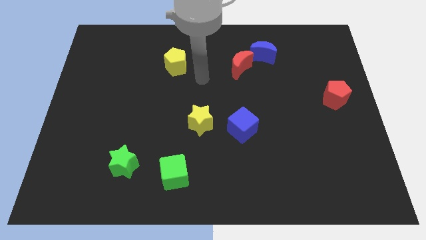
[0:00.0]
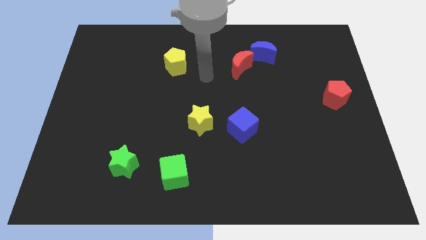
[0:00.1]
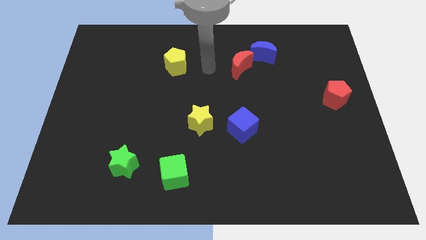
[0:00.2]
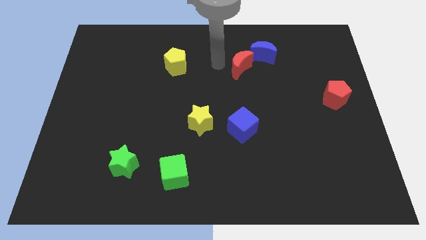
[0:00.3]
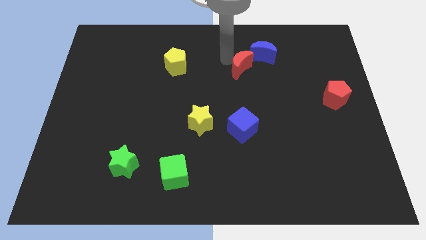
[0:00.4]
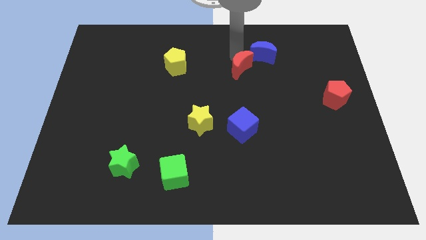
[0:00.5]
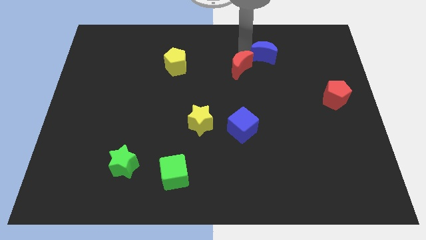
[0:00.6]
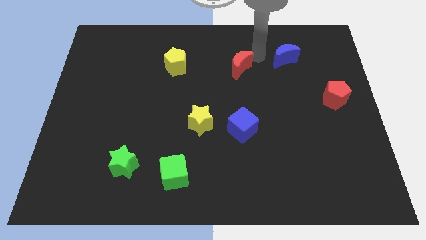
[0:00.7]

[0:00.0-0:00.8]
move the red moon away from the blue moon

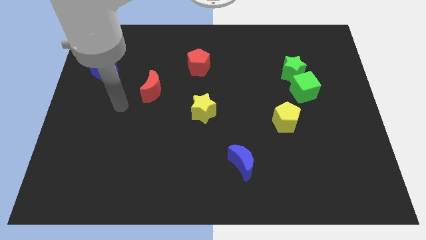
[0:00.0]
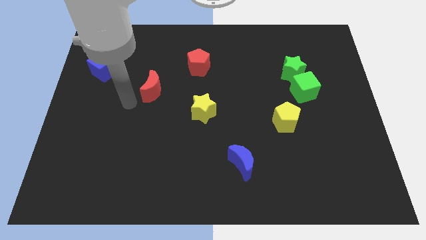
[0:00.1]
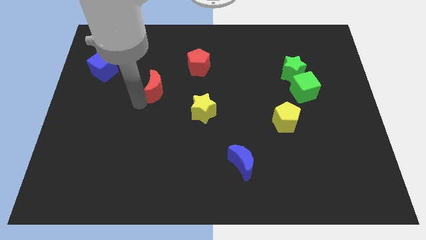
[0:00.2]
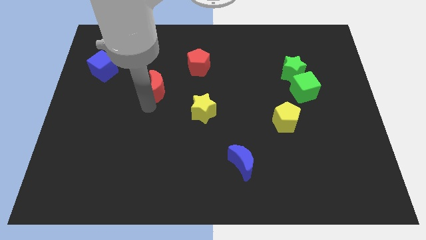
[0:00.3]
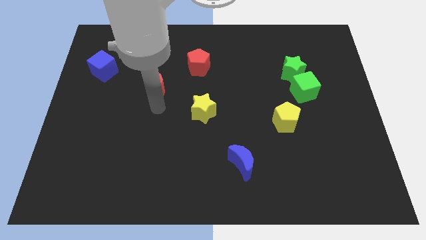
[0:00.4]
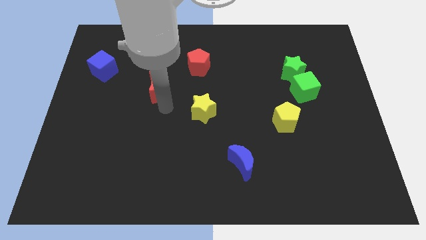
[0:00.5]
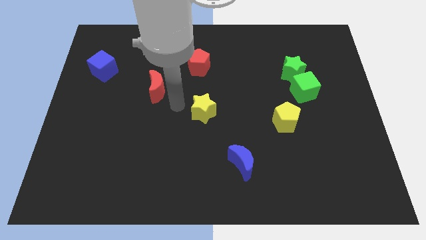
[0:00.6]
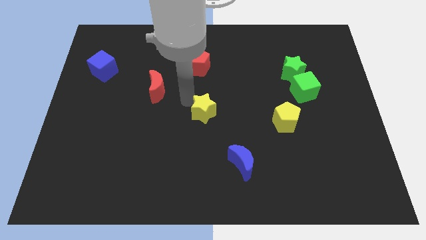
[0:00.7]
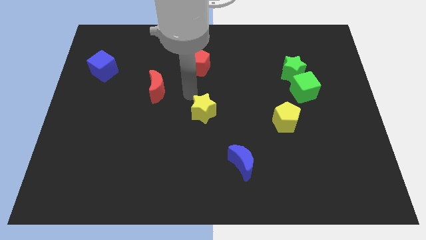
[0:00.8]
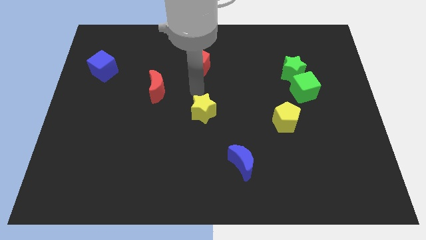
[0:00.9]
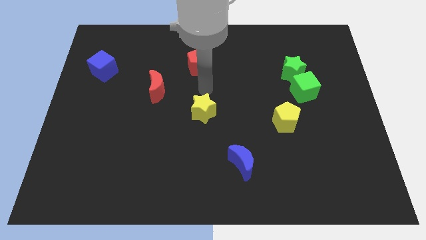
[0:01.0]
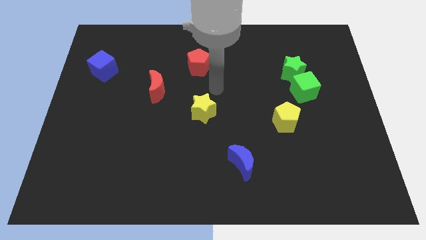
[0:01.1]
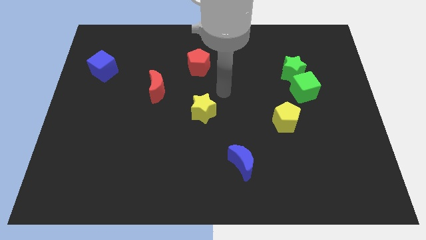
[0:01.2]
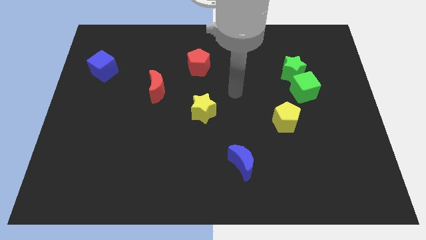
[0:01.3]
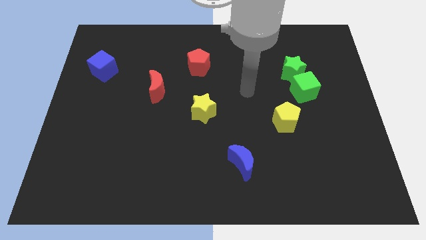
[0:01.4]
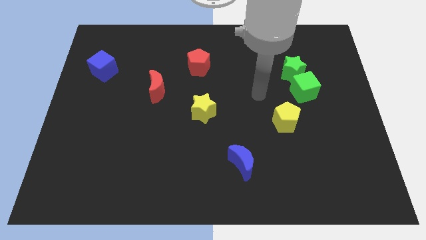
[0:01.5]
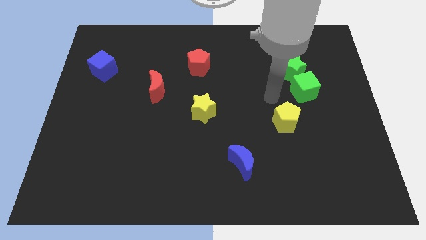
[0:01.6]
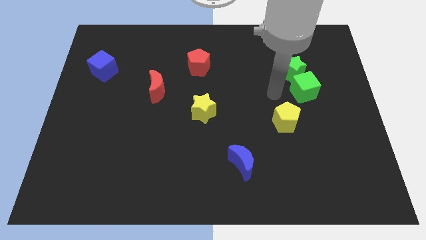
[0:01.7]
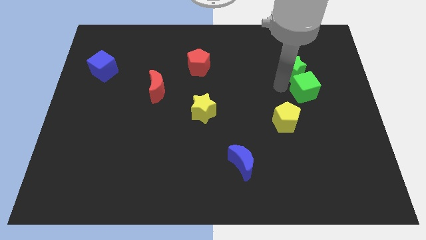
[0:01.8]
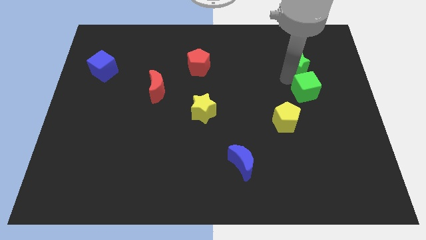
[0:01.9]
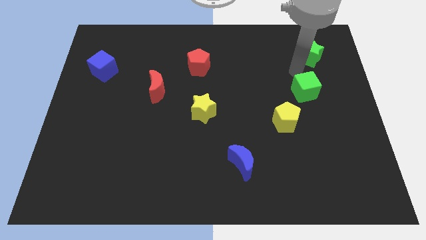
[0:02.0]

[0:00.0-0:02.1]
move the green cube away from the green star

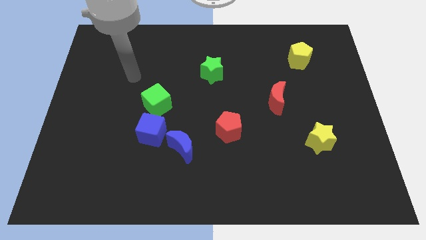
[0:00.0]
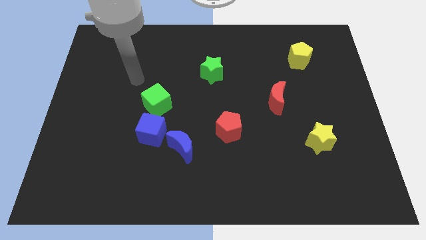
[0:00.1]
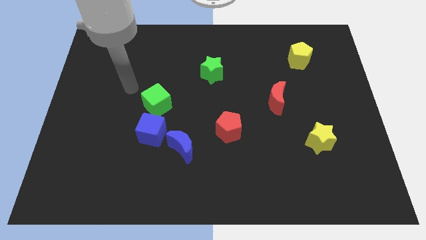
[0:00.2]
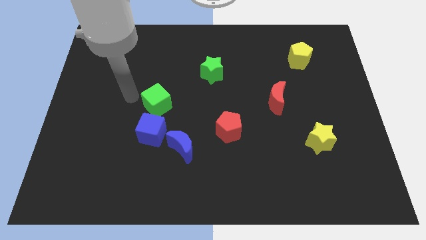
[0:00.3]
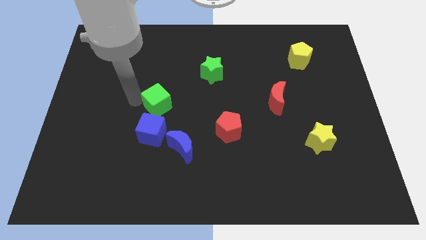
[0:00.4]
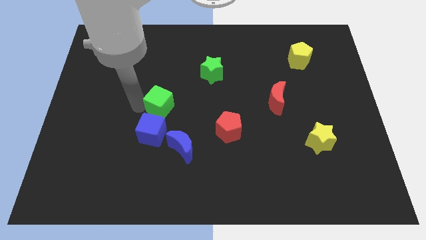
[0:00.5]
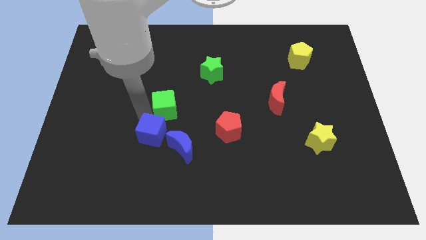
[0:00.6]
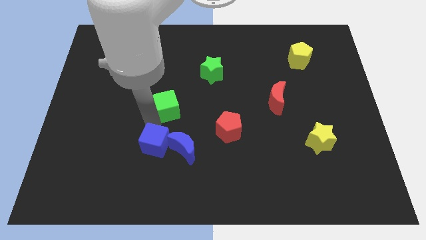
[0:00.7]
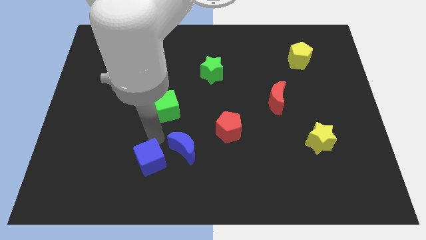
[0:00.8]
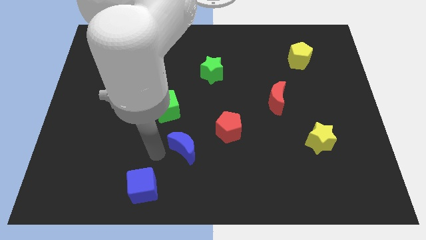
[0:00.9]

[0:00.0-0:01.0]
pull the blue moon apart from the blue cube

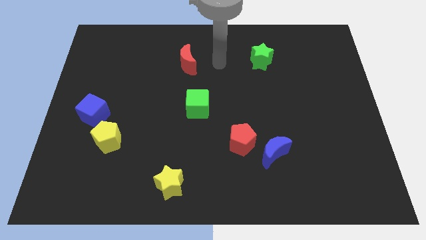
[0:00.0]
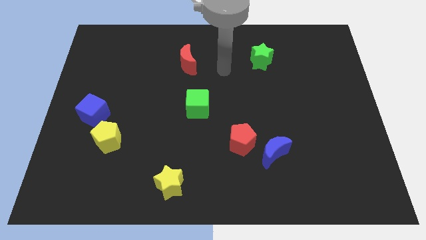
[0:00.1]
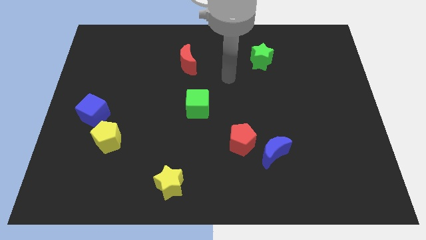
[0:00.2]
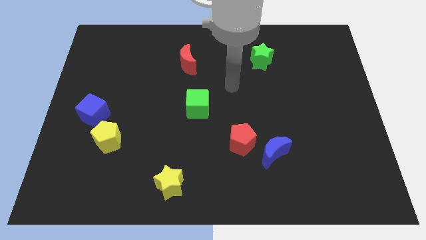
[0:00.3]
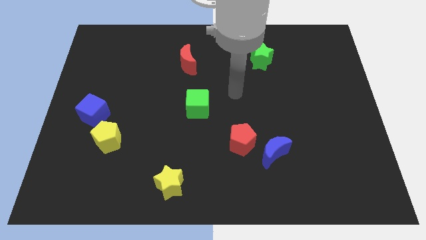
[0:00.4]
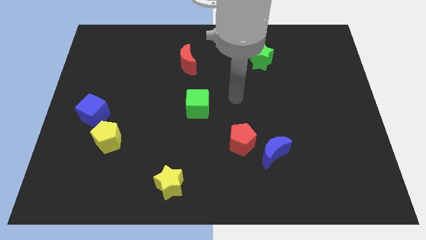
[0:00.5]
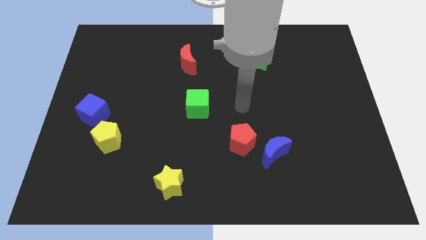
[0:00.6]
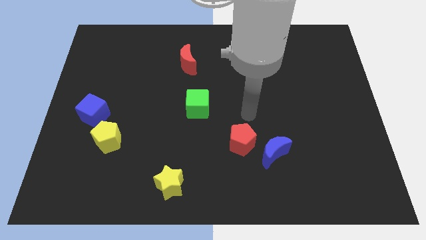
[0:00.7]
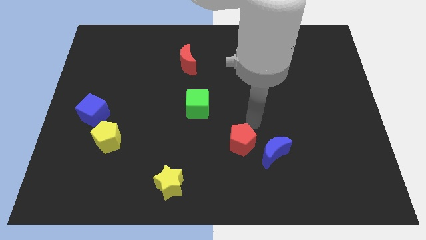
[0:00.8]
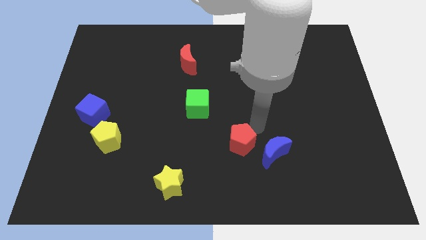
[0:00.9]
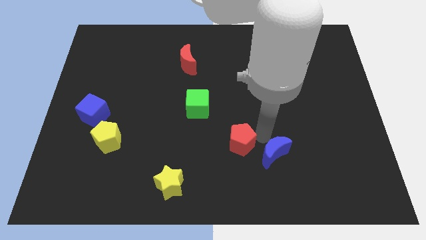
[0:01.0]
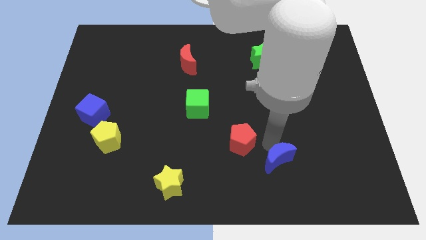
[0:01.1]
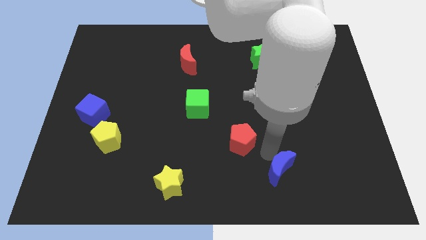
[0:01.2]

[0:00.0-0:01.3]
pull the red pentagon apart from the blue moon

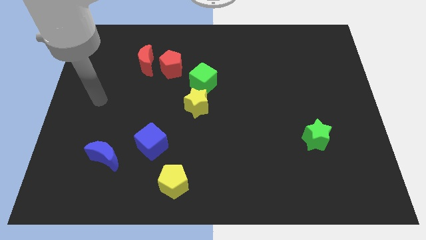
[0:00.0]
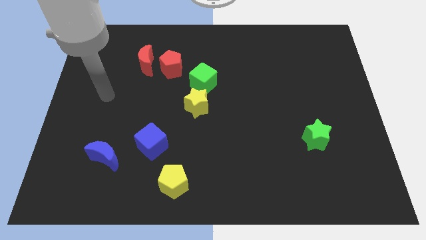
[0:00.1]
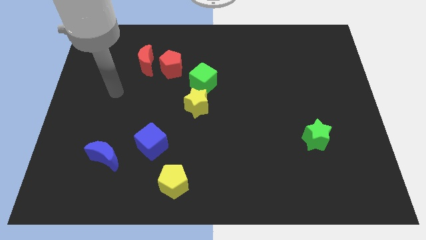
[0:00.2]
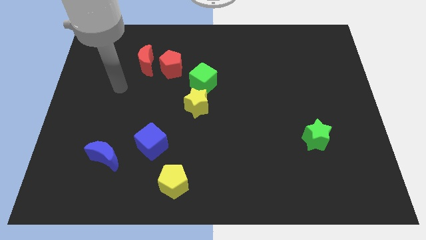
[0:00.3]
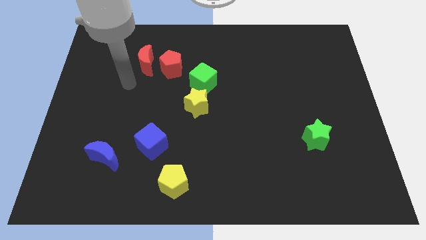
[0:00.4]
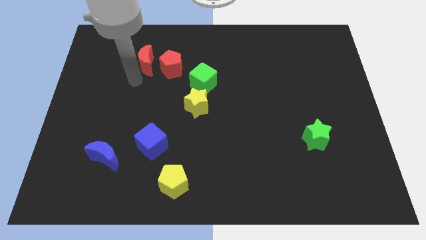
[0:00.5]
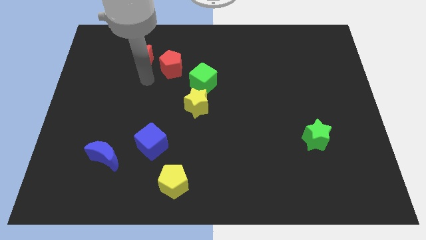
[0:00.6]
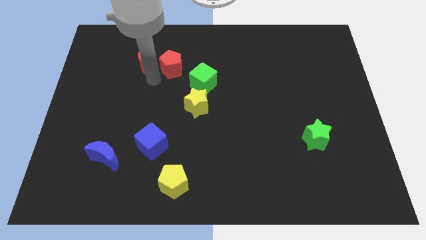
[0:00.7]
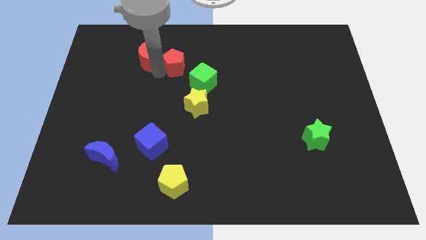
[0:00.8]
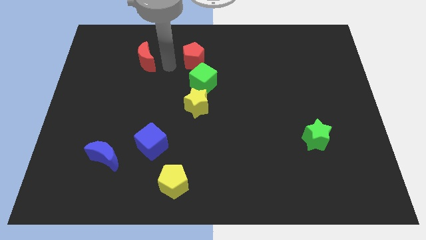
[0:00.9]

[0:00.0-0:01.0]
pull the red moon apart from the red pentagon

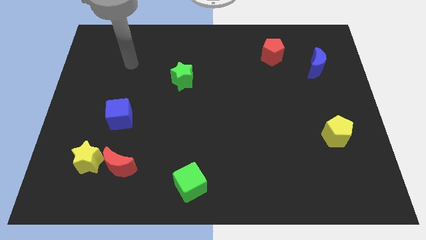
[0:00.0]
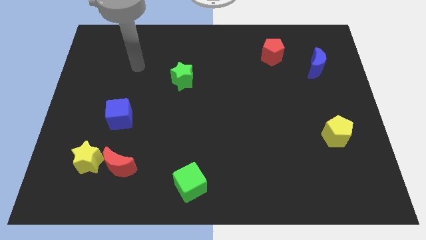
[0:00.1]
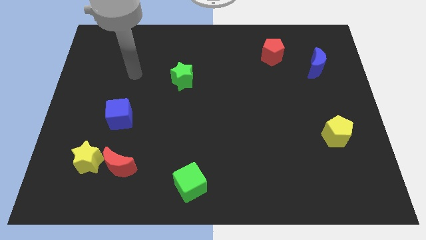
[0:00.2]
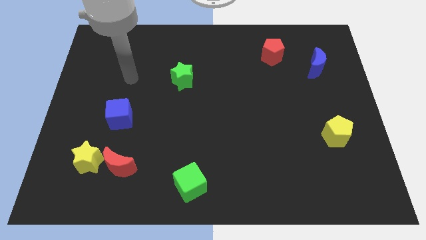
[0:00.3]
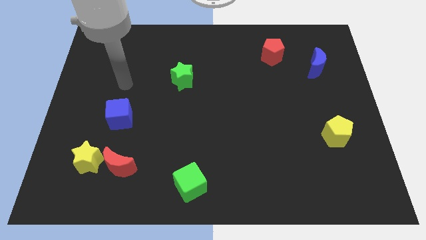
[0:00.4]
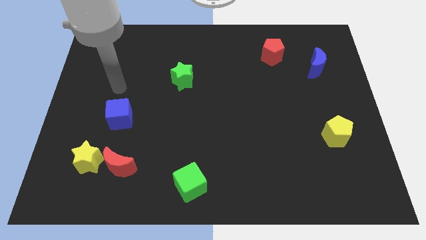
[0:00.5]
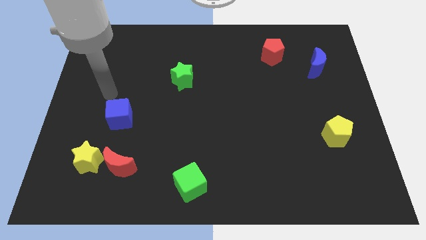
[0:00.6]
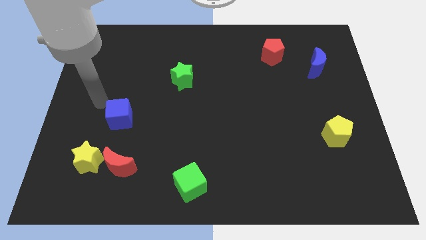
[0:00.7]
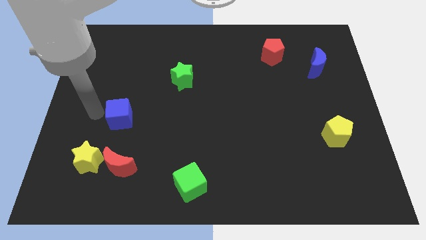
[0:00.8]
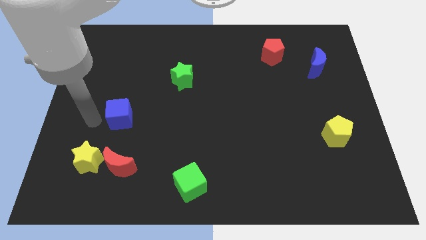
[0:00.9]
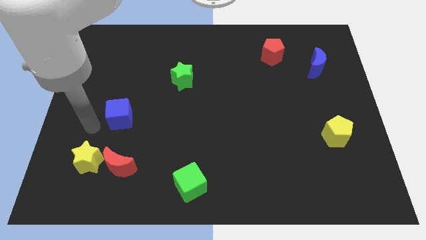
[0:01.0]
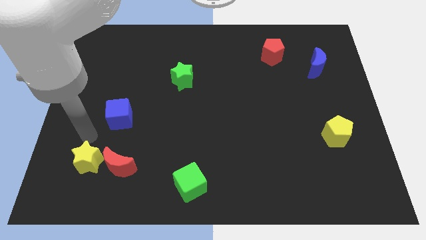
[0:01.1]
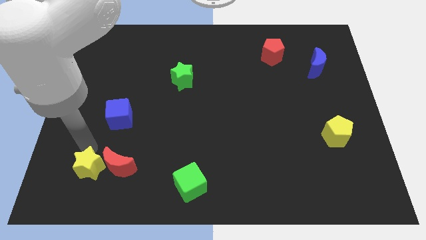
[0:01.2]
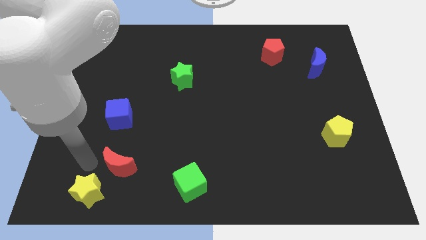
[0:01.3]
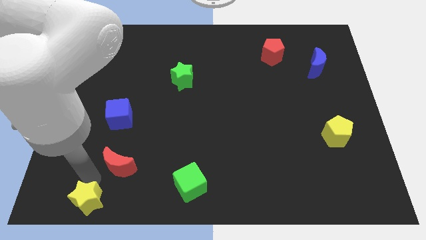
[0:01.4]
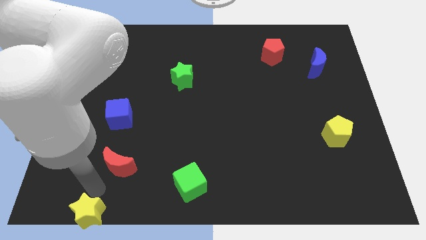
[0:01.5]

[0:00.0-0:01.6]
pull the red moon apart from the yellow star

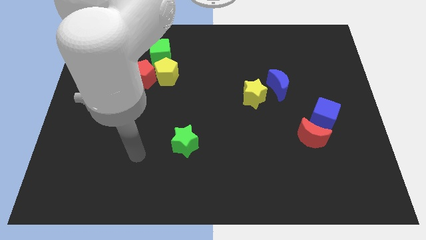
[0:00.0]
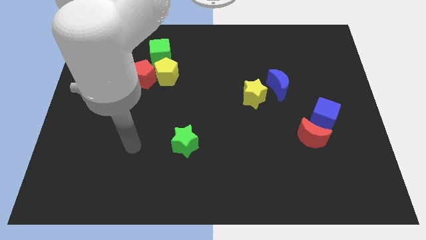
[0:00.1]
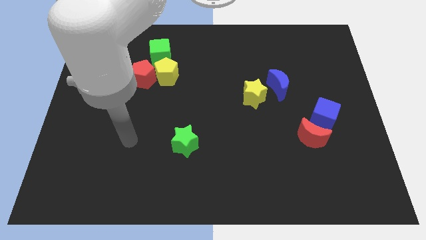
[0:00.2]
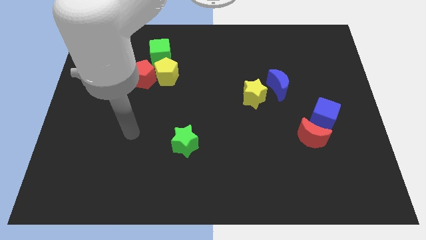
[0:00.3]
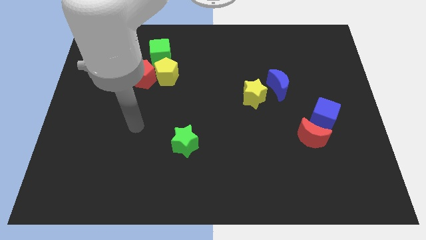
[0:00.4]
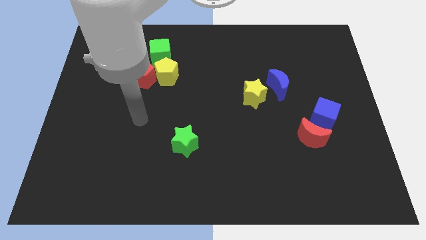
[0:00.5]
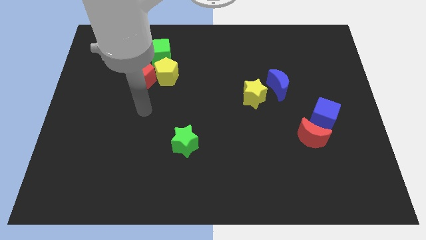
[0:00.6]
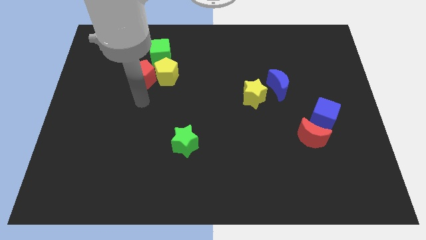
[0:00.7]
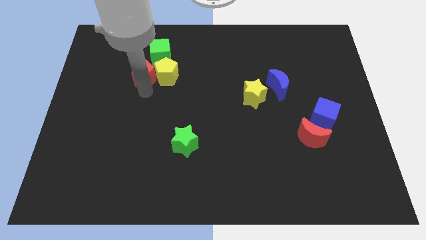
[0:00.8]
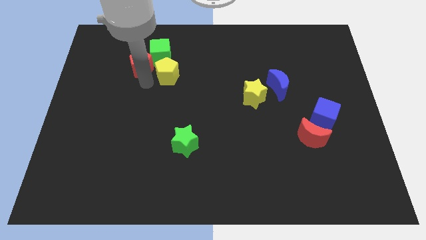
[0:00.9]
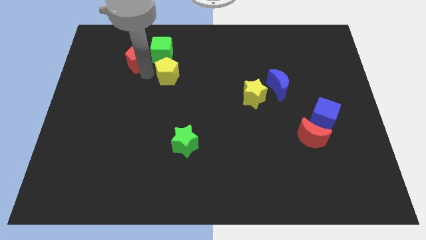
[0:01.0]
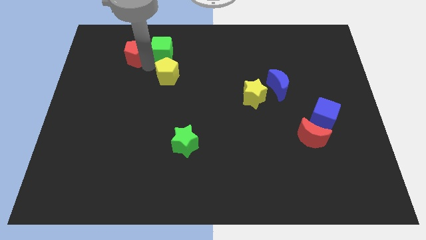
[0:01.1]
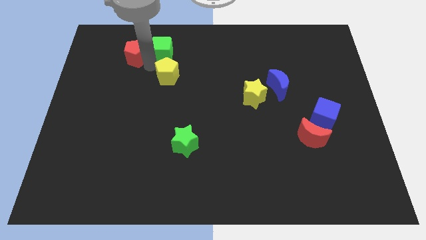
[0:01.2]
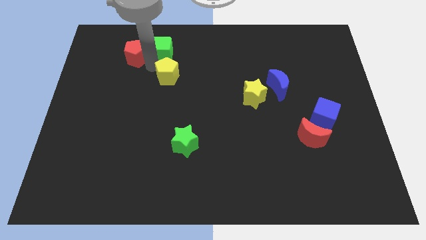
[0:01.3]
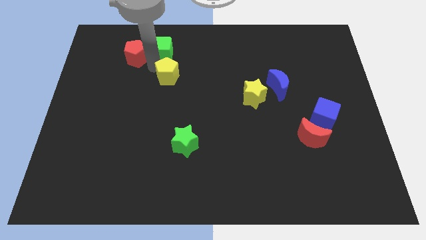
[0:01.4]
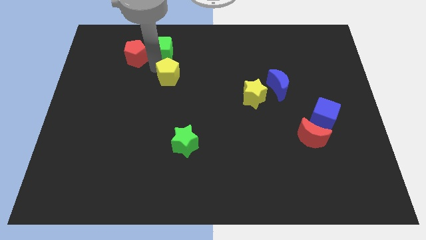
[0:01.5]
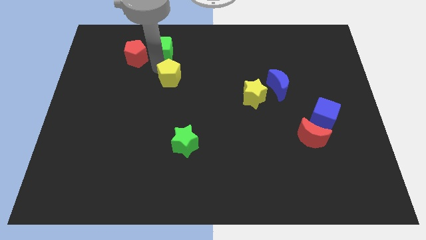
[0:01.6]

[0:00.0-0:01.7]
separate the yellow pentagon from the red pentagon and green cube
